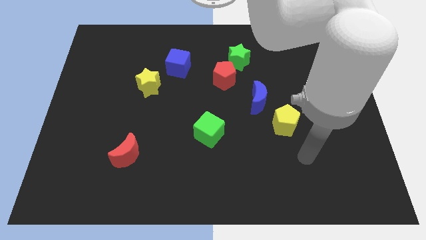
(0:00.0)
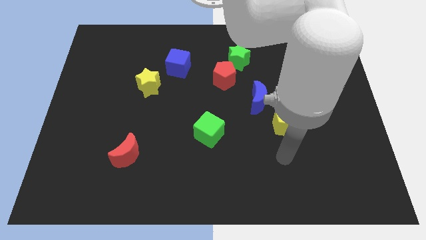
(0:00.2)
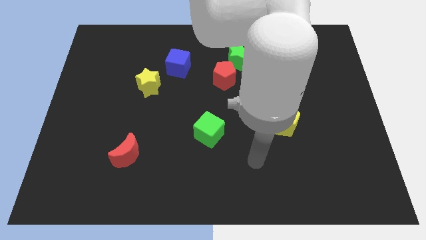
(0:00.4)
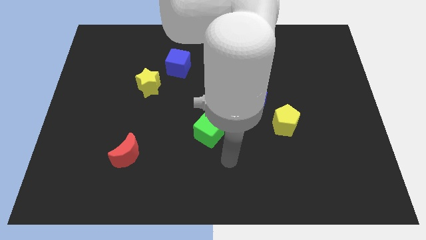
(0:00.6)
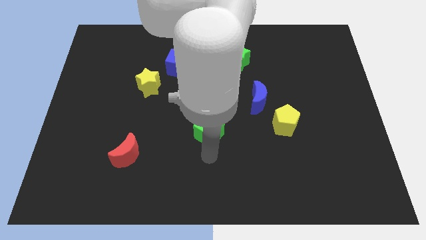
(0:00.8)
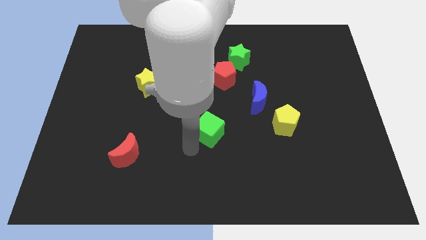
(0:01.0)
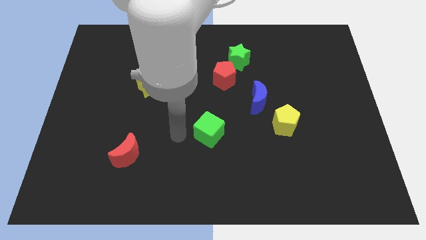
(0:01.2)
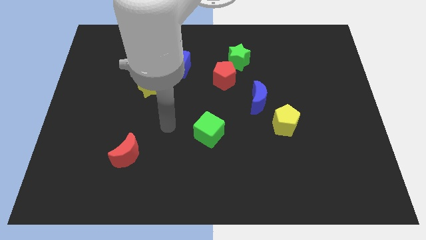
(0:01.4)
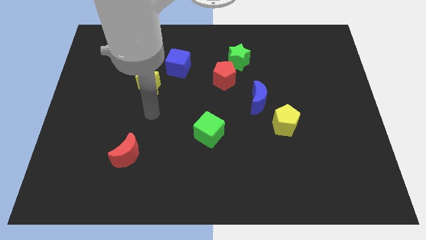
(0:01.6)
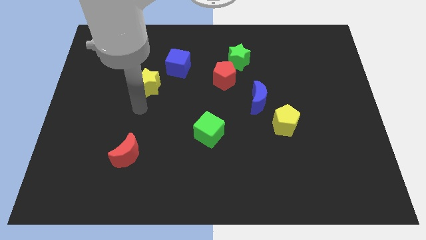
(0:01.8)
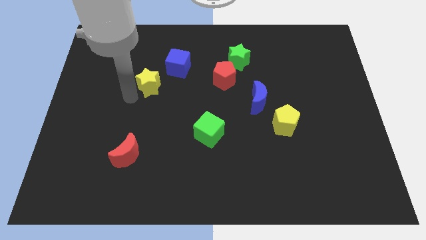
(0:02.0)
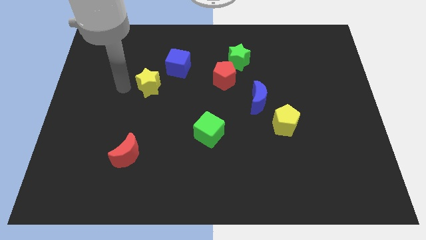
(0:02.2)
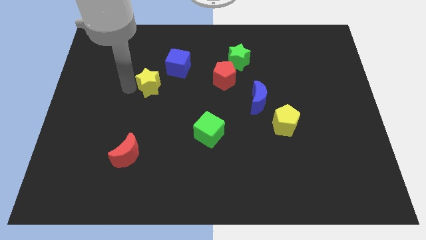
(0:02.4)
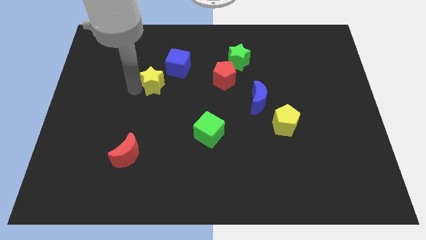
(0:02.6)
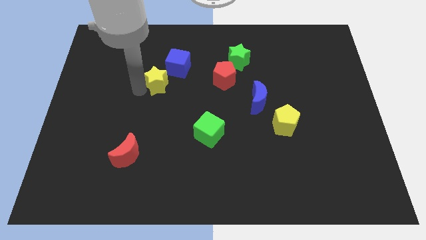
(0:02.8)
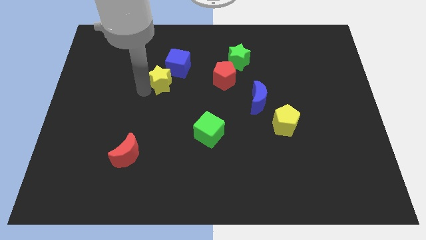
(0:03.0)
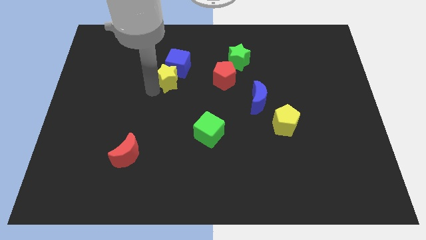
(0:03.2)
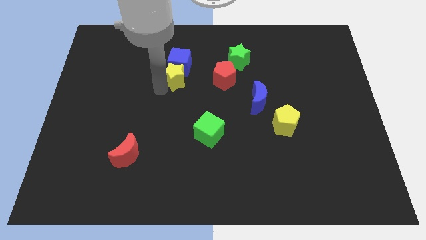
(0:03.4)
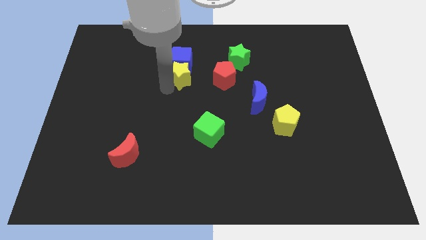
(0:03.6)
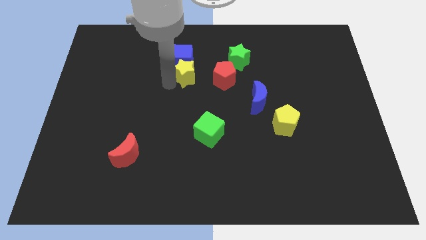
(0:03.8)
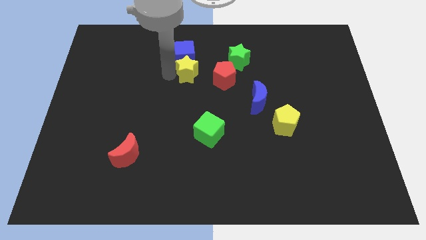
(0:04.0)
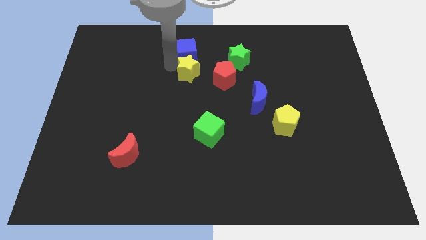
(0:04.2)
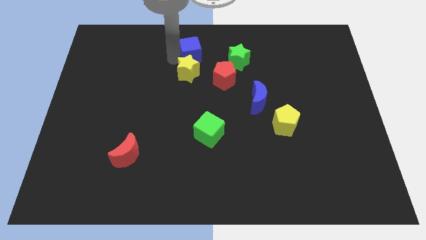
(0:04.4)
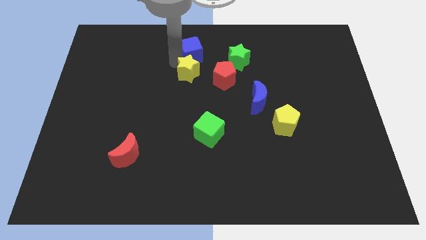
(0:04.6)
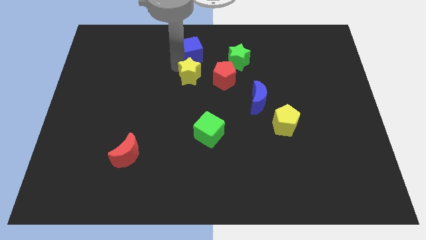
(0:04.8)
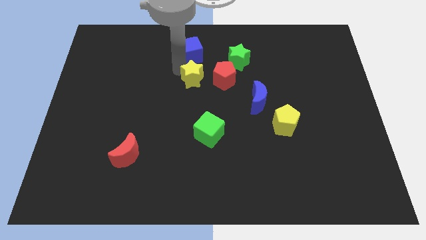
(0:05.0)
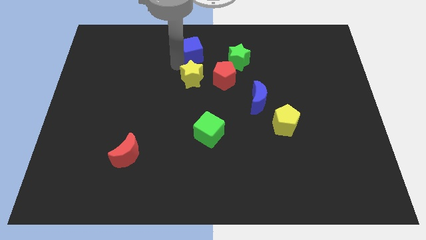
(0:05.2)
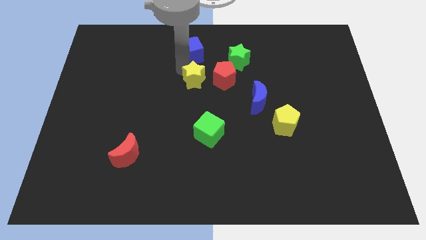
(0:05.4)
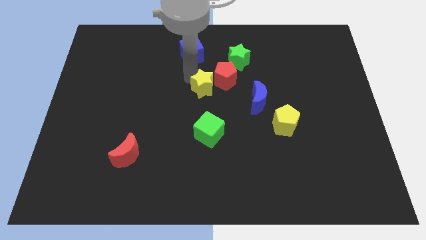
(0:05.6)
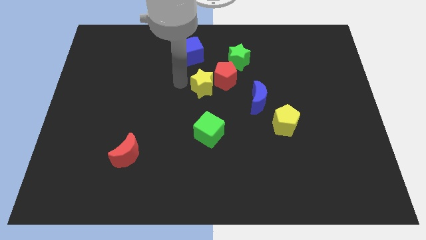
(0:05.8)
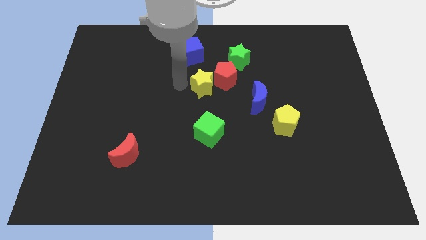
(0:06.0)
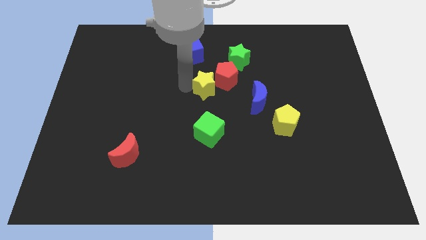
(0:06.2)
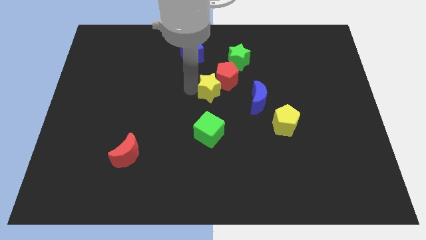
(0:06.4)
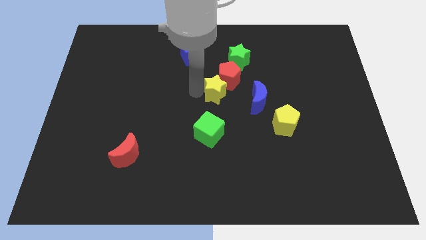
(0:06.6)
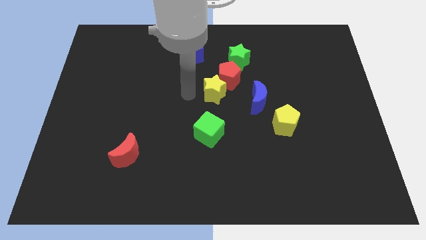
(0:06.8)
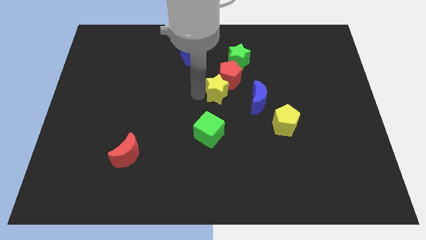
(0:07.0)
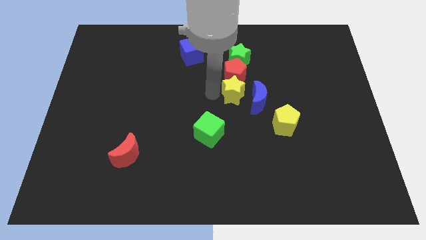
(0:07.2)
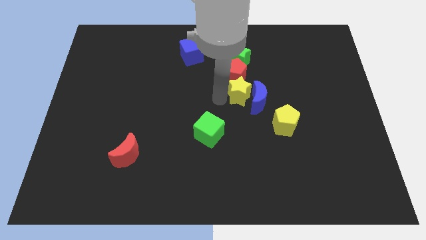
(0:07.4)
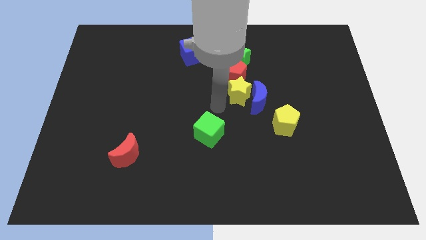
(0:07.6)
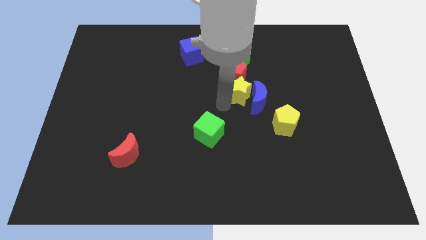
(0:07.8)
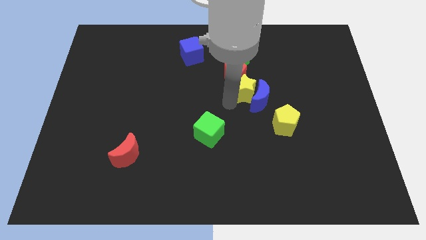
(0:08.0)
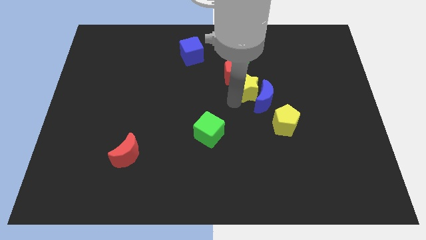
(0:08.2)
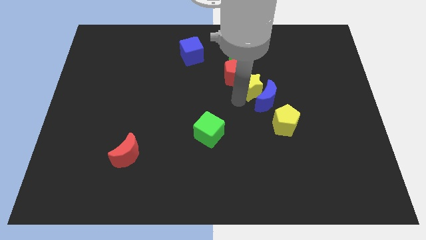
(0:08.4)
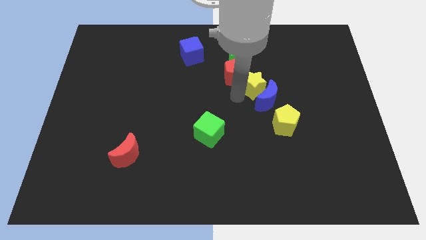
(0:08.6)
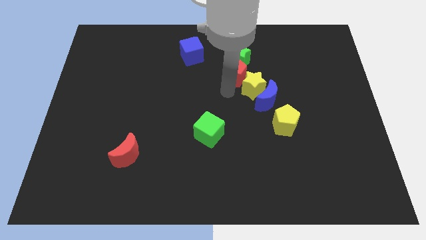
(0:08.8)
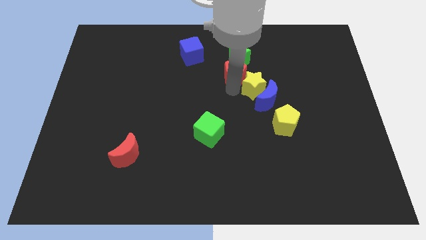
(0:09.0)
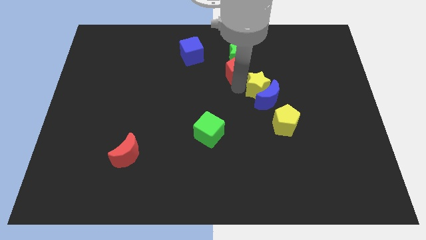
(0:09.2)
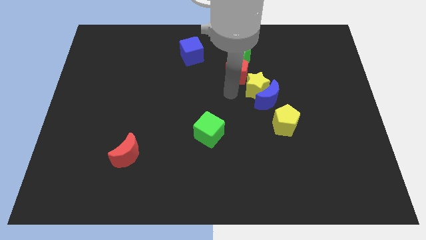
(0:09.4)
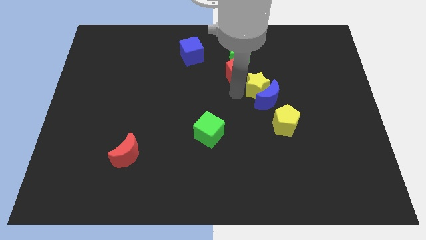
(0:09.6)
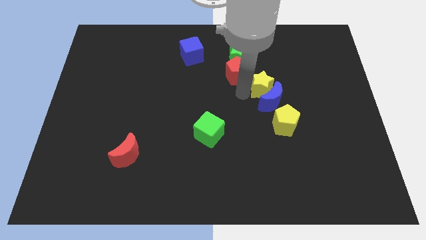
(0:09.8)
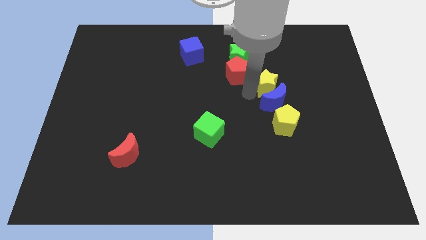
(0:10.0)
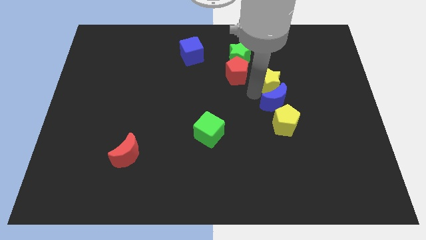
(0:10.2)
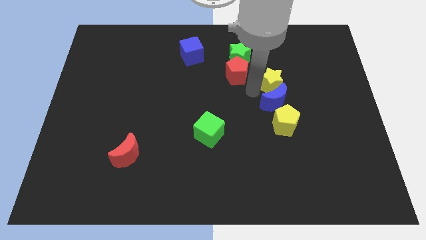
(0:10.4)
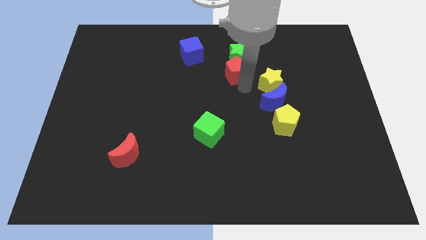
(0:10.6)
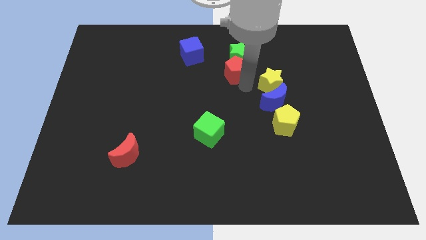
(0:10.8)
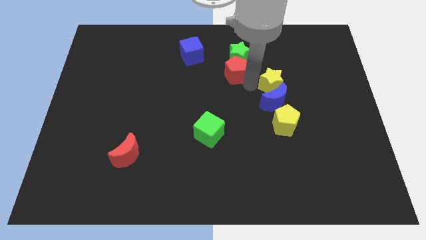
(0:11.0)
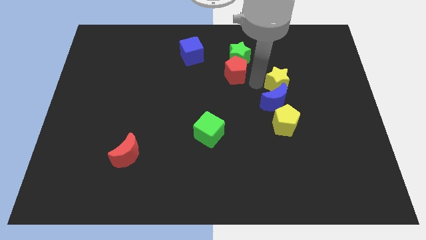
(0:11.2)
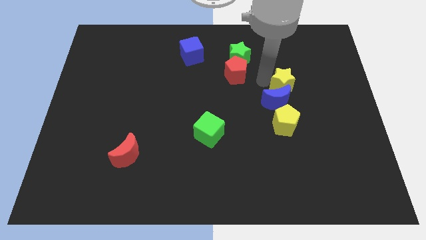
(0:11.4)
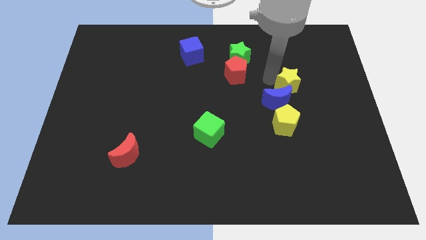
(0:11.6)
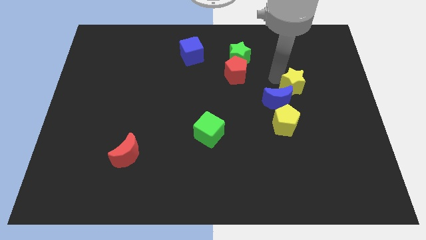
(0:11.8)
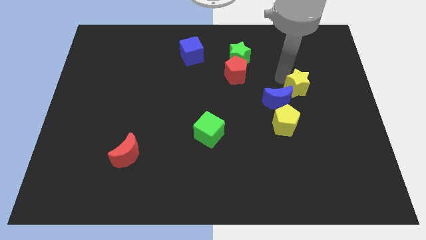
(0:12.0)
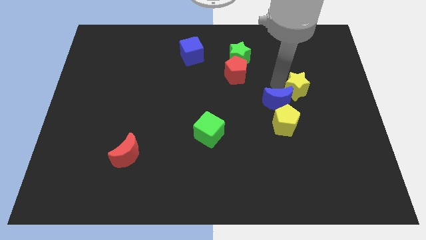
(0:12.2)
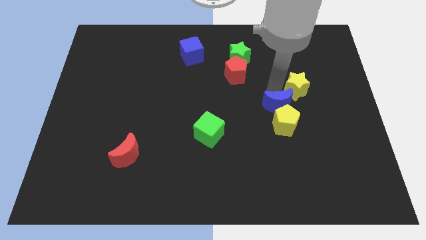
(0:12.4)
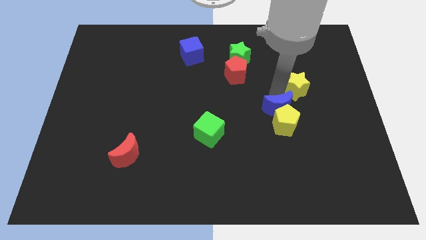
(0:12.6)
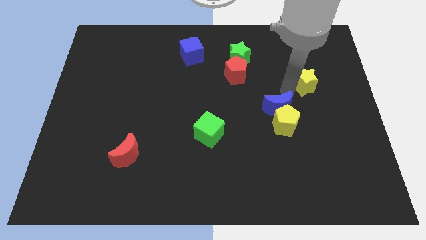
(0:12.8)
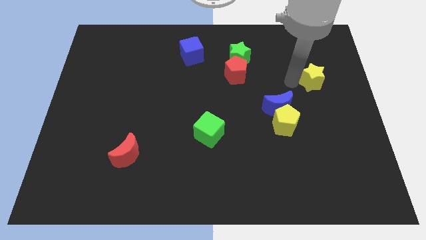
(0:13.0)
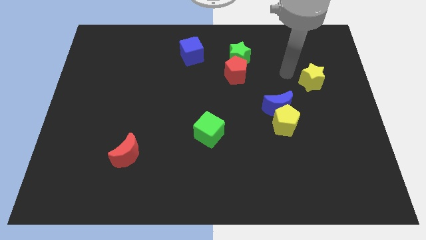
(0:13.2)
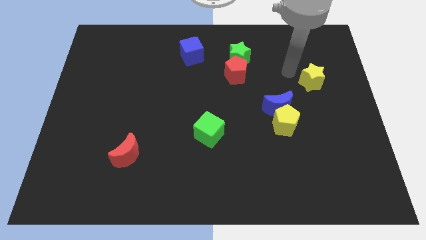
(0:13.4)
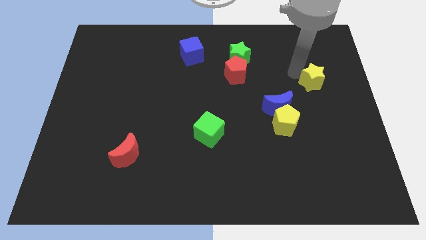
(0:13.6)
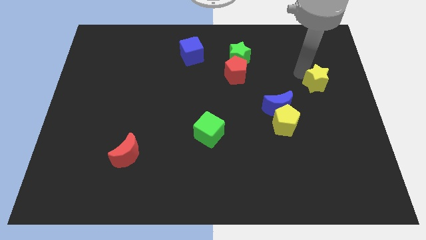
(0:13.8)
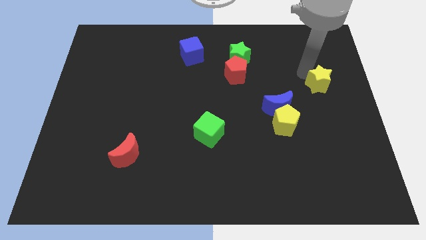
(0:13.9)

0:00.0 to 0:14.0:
move the yellow star to the right side of the board
